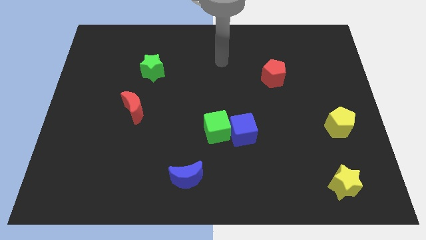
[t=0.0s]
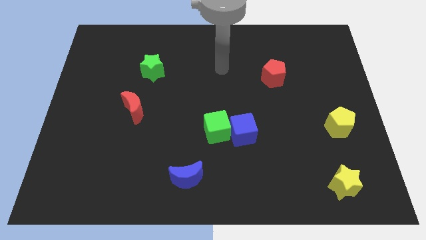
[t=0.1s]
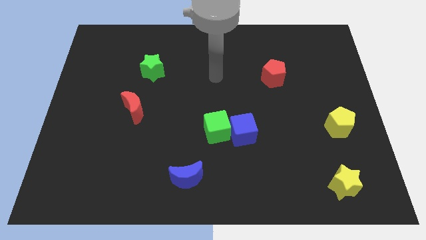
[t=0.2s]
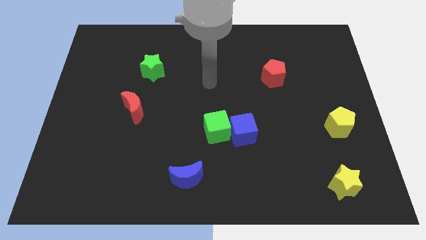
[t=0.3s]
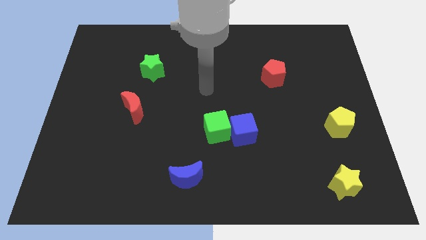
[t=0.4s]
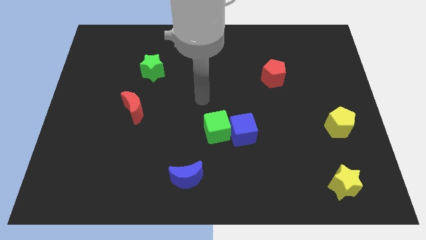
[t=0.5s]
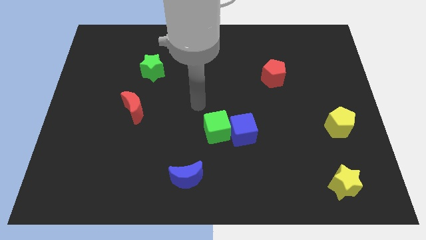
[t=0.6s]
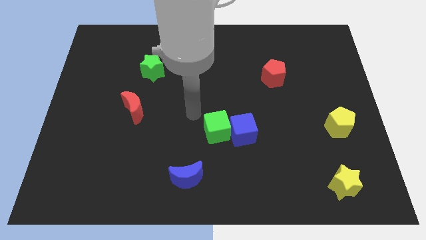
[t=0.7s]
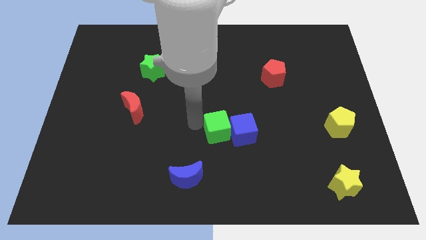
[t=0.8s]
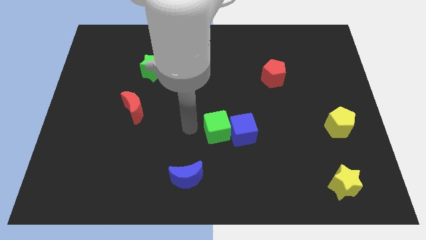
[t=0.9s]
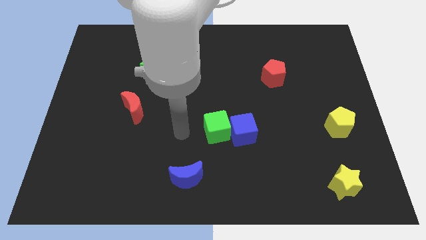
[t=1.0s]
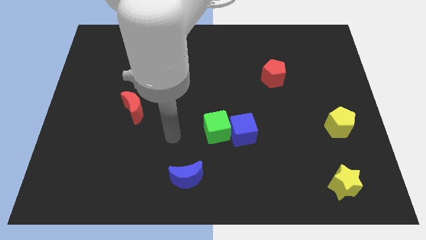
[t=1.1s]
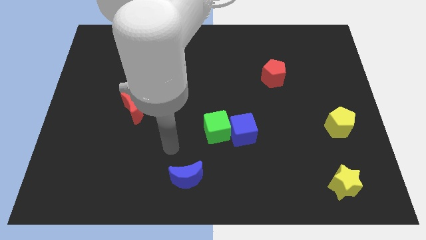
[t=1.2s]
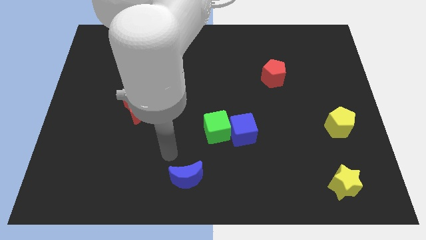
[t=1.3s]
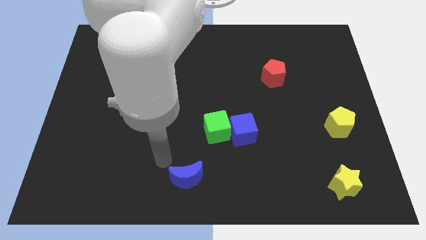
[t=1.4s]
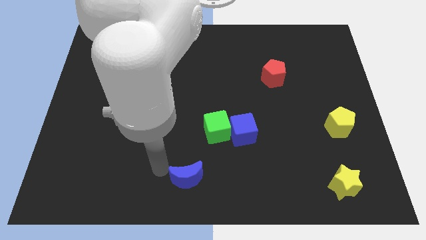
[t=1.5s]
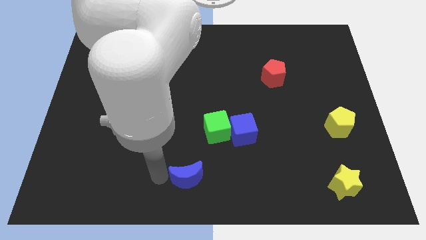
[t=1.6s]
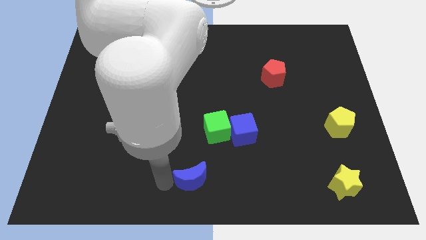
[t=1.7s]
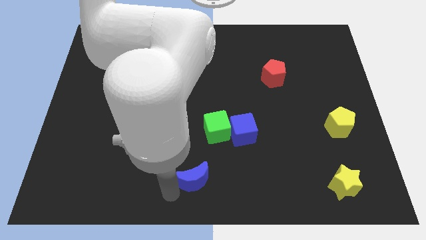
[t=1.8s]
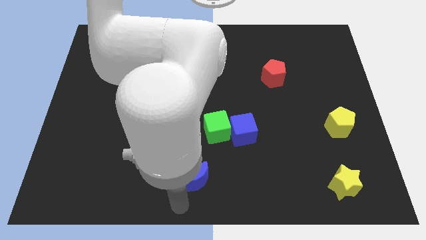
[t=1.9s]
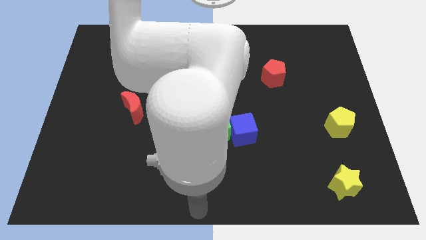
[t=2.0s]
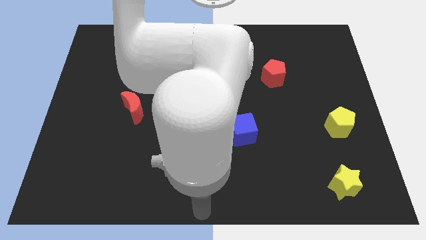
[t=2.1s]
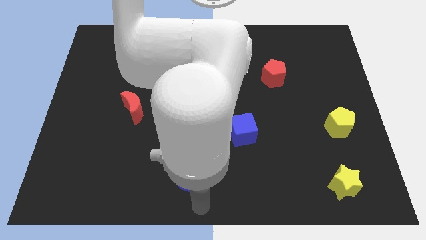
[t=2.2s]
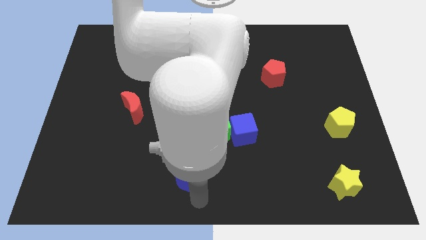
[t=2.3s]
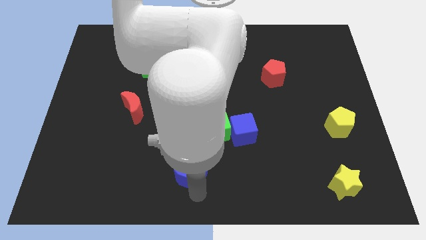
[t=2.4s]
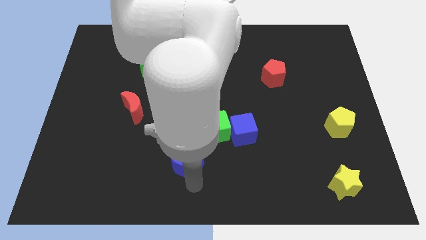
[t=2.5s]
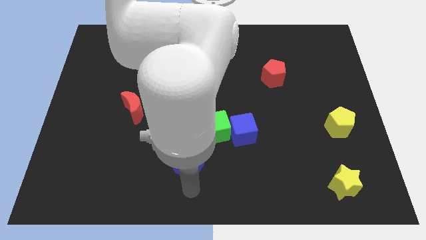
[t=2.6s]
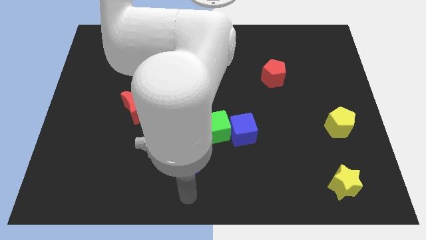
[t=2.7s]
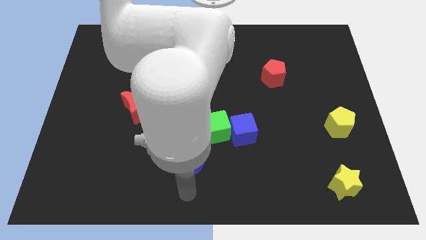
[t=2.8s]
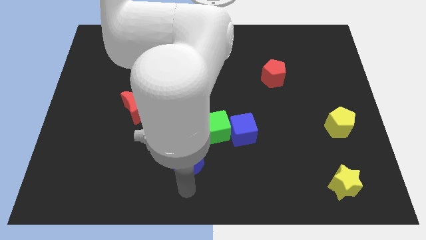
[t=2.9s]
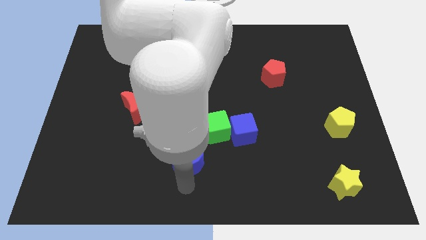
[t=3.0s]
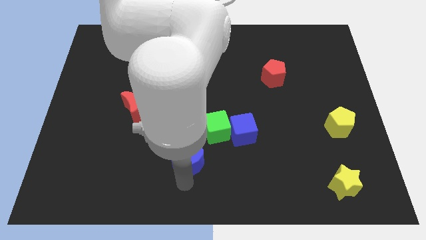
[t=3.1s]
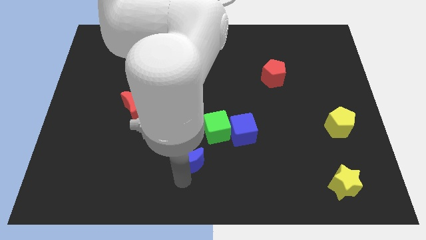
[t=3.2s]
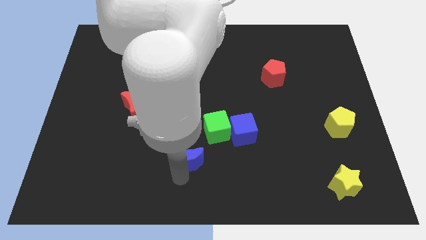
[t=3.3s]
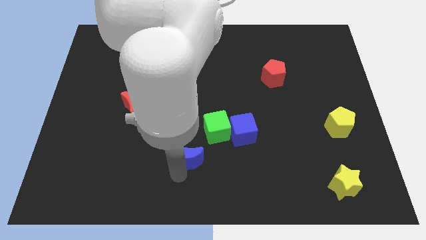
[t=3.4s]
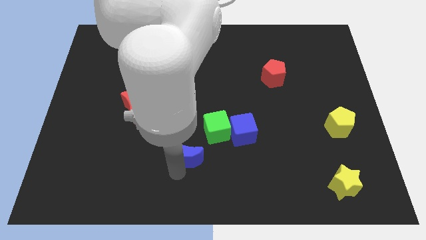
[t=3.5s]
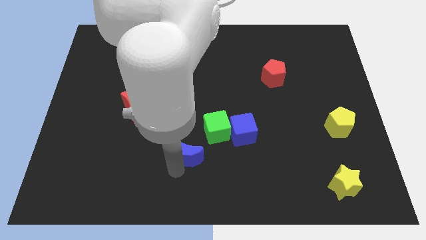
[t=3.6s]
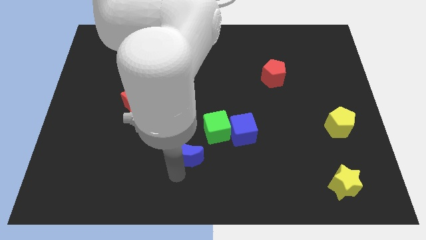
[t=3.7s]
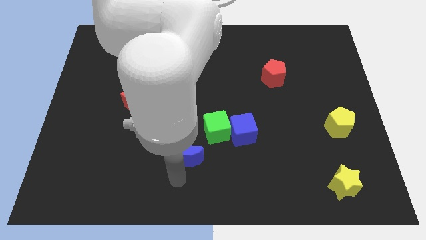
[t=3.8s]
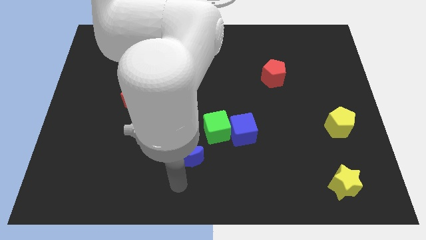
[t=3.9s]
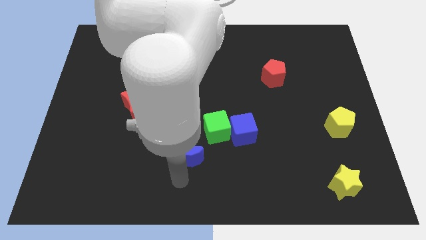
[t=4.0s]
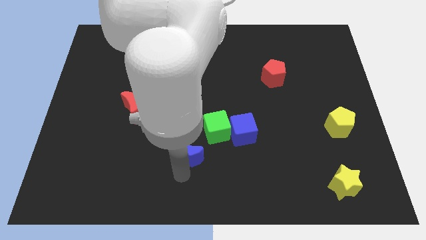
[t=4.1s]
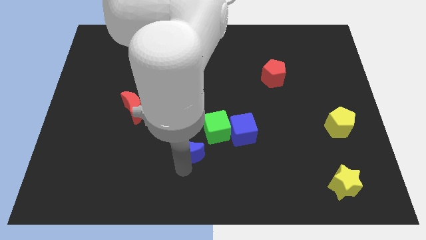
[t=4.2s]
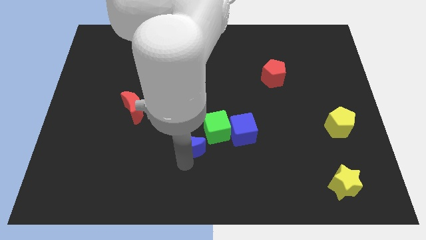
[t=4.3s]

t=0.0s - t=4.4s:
push the blue moon up a little

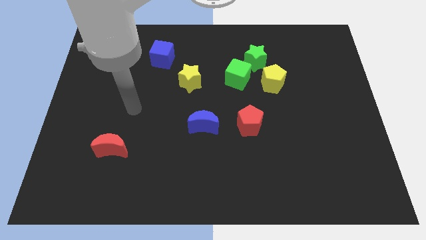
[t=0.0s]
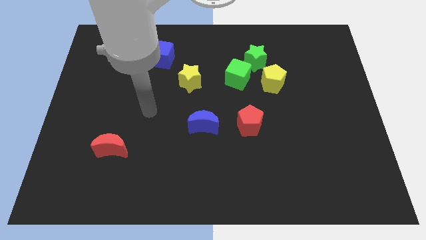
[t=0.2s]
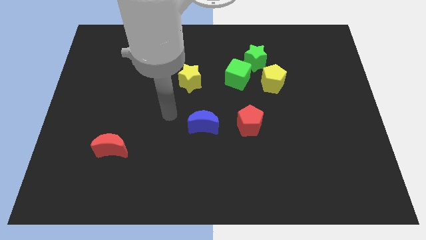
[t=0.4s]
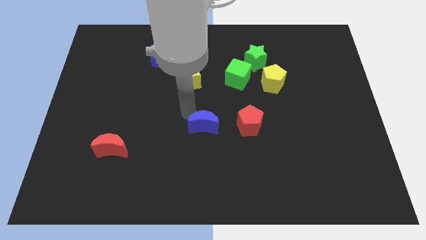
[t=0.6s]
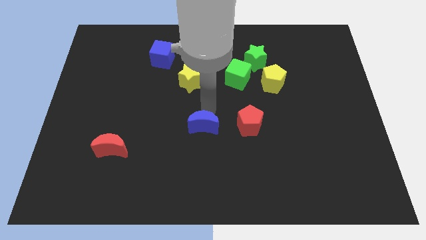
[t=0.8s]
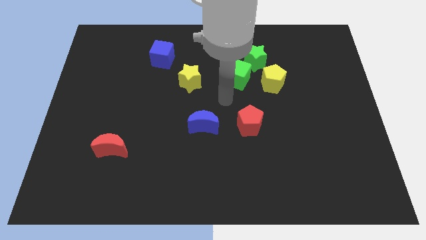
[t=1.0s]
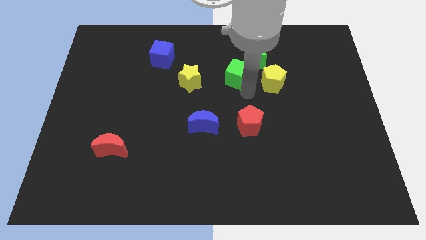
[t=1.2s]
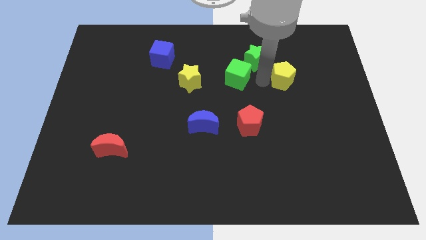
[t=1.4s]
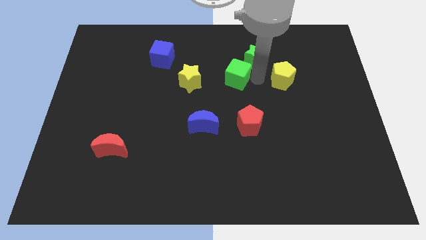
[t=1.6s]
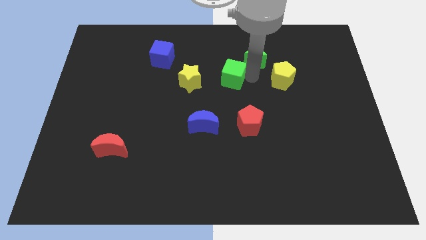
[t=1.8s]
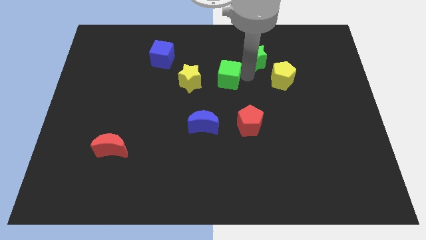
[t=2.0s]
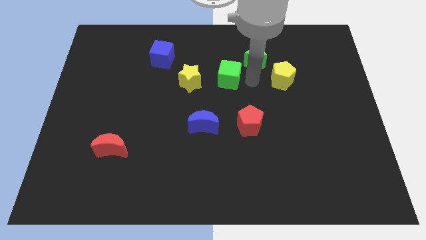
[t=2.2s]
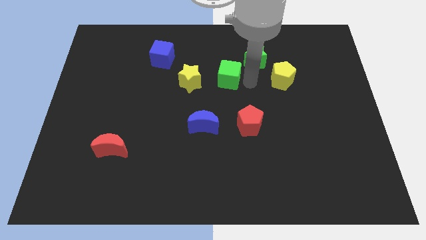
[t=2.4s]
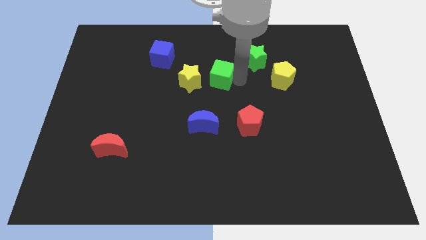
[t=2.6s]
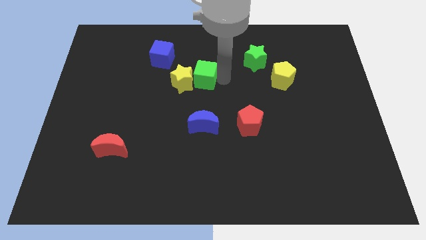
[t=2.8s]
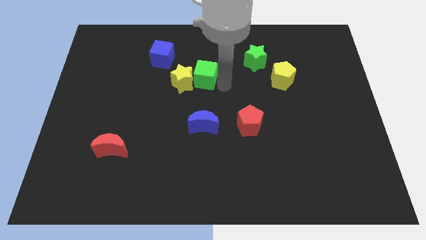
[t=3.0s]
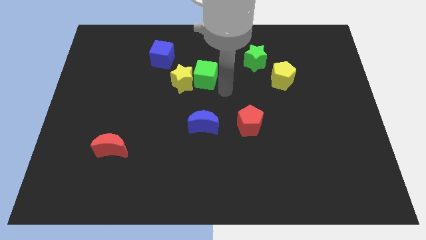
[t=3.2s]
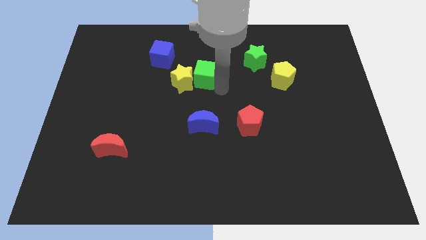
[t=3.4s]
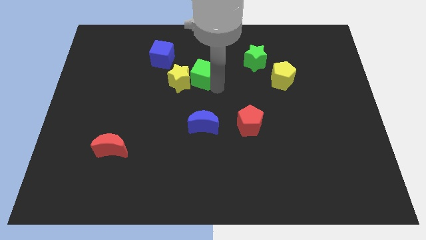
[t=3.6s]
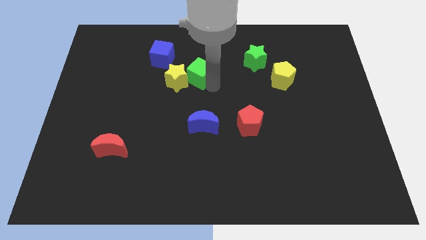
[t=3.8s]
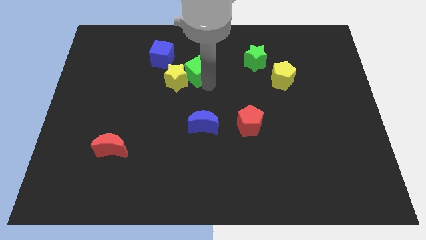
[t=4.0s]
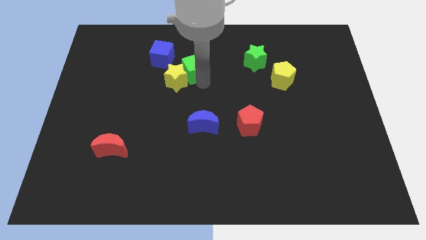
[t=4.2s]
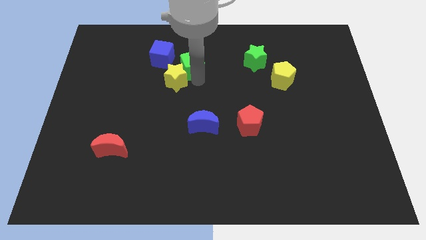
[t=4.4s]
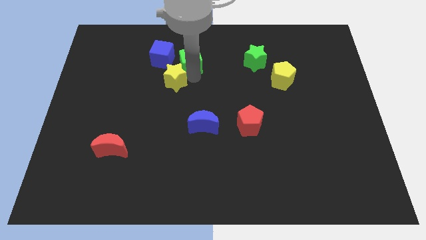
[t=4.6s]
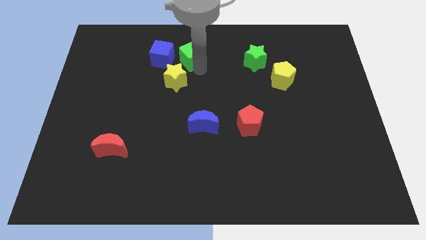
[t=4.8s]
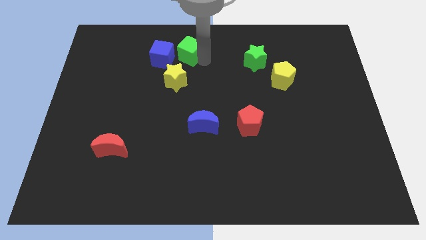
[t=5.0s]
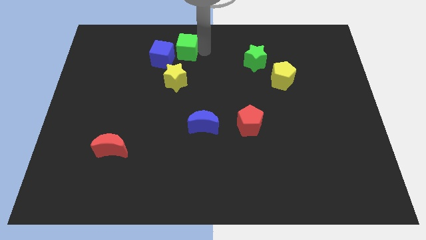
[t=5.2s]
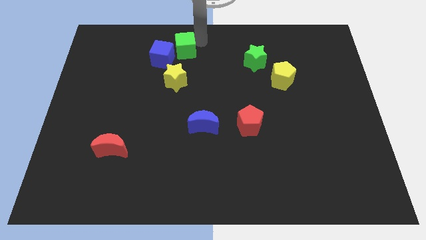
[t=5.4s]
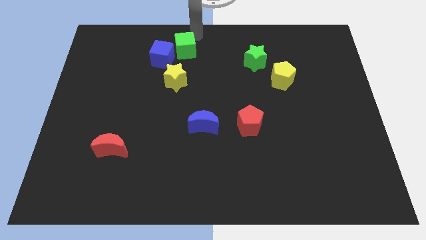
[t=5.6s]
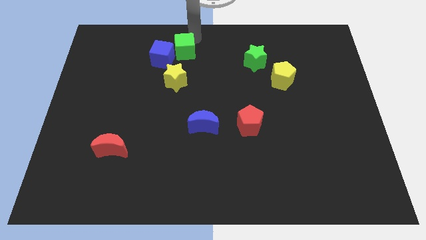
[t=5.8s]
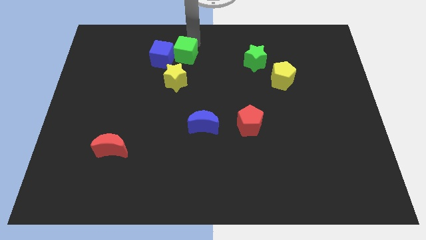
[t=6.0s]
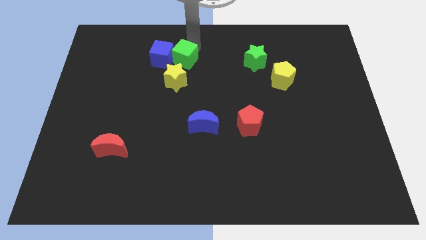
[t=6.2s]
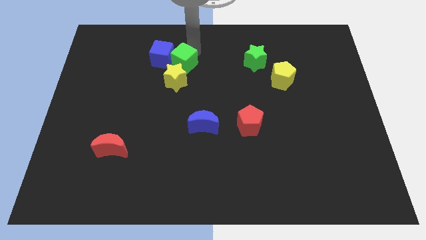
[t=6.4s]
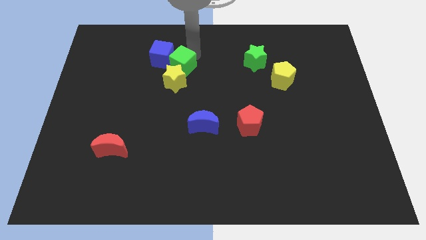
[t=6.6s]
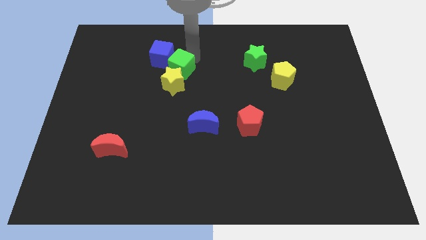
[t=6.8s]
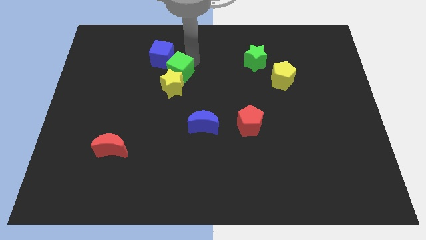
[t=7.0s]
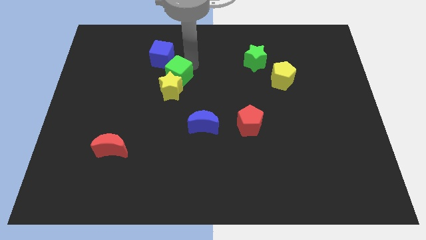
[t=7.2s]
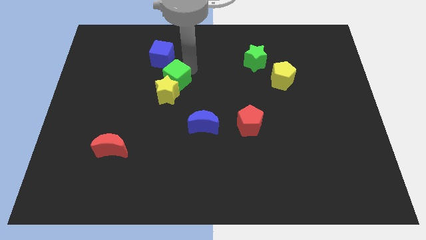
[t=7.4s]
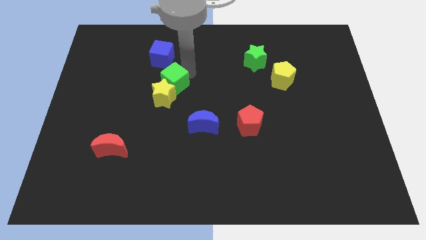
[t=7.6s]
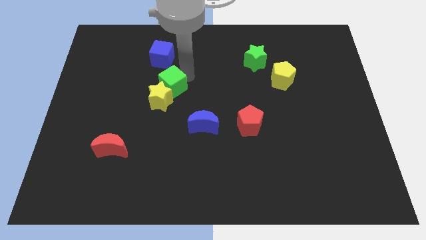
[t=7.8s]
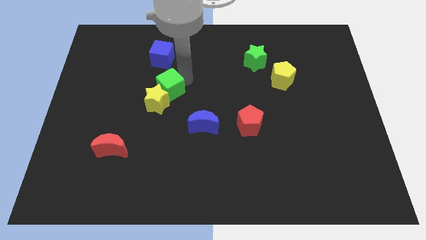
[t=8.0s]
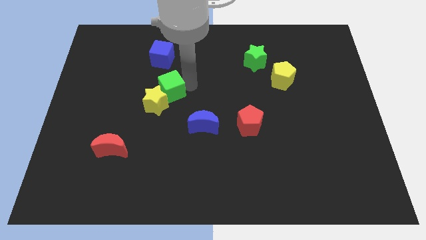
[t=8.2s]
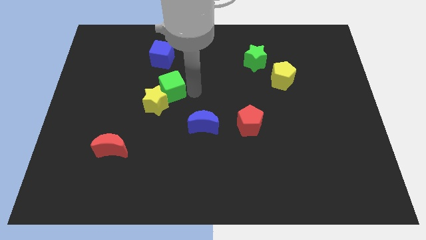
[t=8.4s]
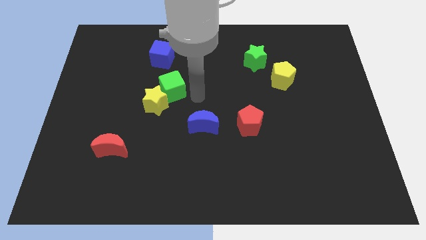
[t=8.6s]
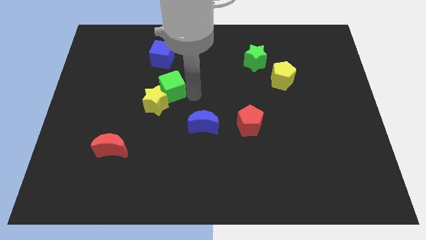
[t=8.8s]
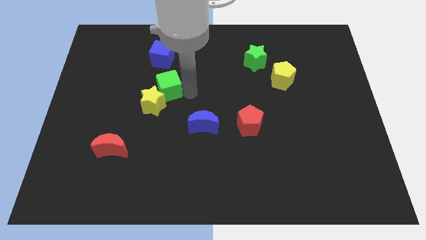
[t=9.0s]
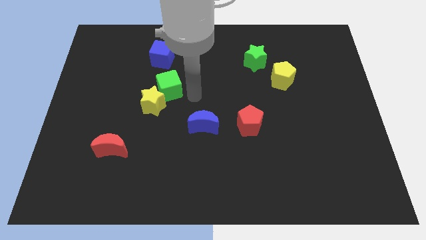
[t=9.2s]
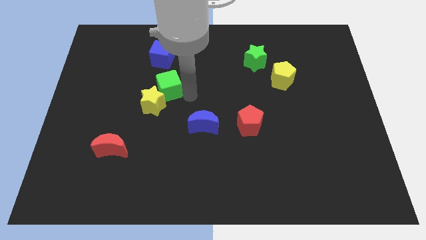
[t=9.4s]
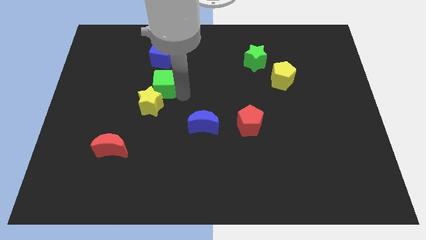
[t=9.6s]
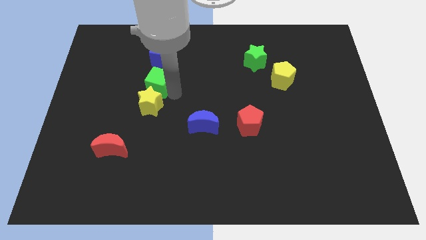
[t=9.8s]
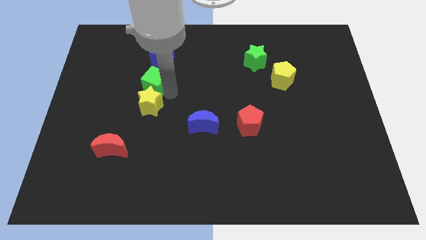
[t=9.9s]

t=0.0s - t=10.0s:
slide the green cube to the left
